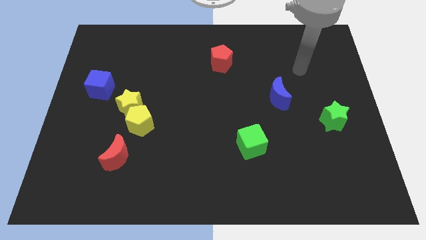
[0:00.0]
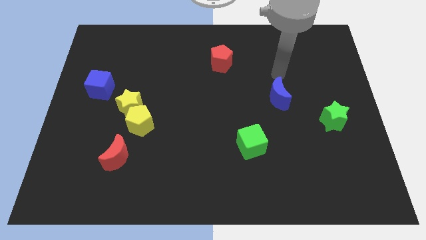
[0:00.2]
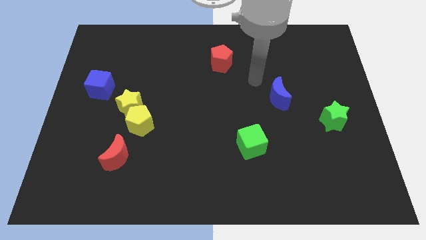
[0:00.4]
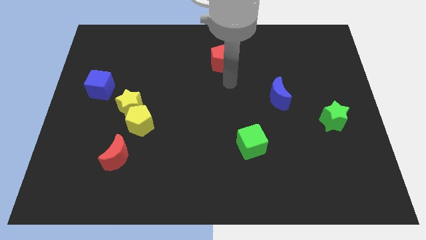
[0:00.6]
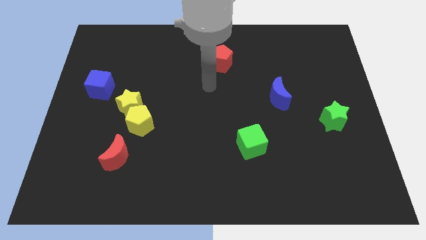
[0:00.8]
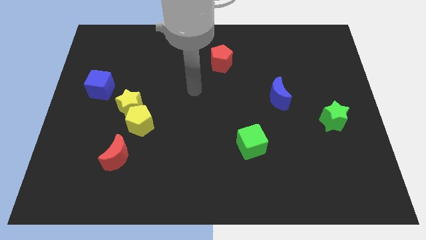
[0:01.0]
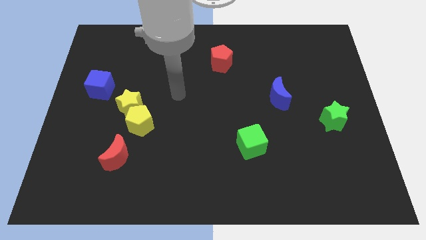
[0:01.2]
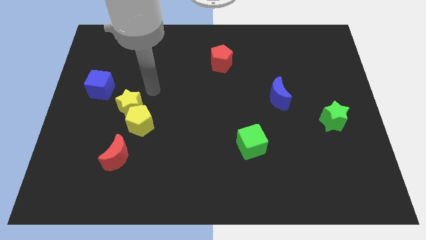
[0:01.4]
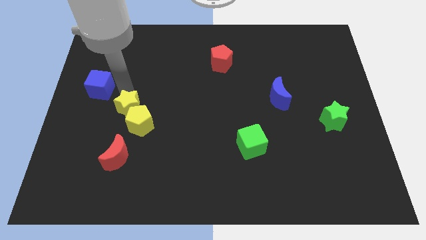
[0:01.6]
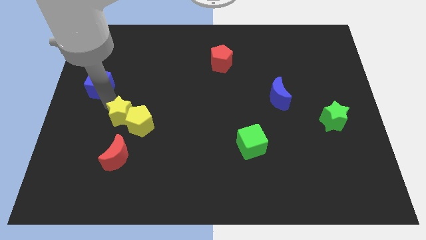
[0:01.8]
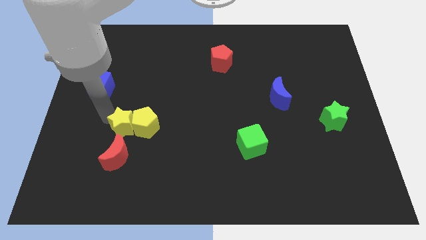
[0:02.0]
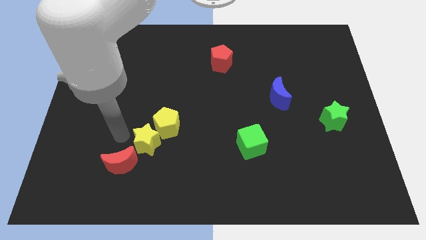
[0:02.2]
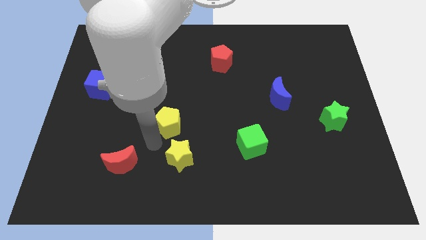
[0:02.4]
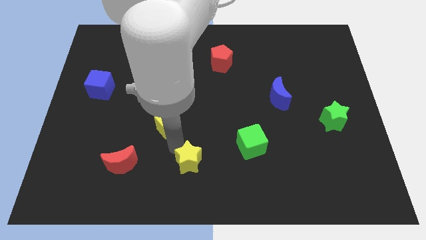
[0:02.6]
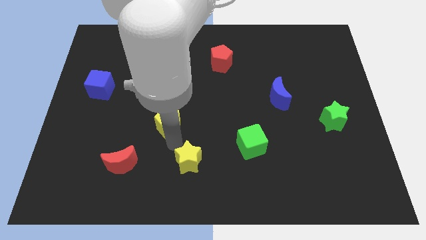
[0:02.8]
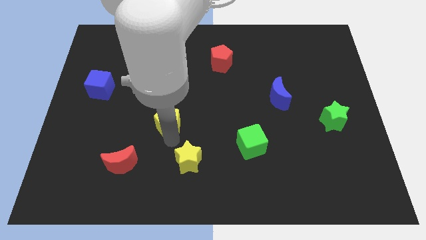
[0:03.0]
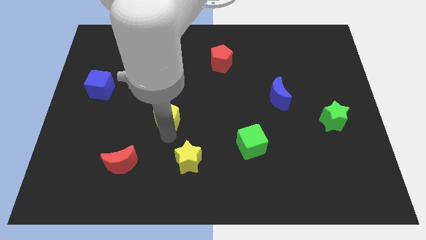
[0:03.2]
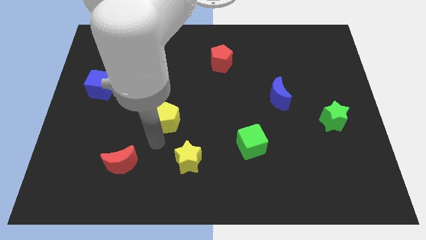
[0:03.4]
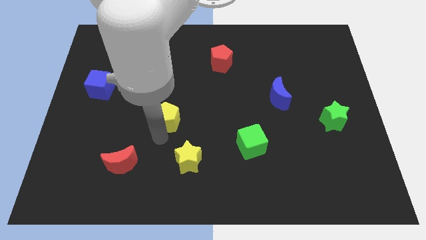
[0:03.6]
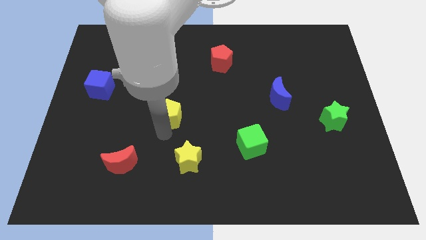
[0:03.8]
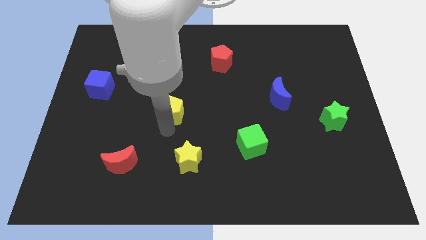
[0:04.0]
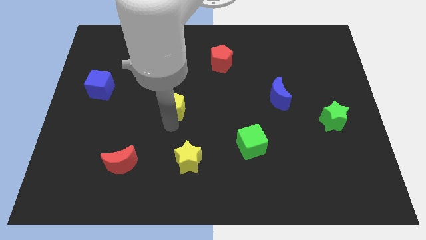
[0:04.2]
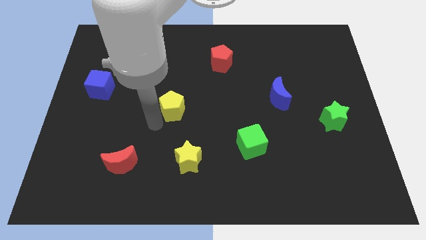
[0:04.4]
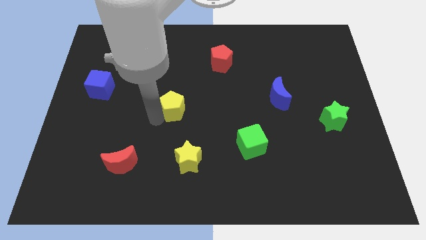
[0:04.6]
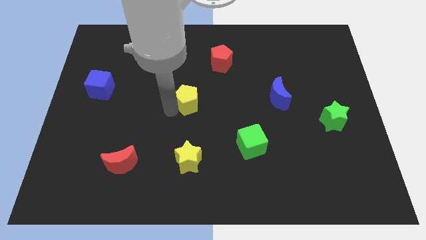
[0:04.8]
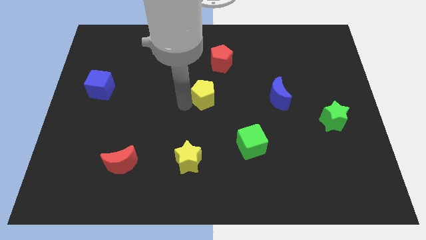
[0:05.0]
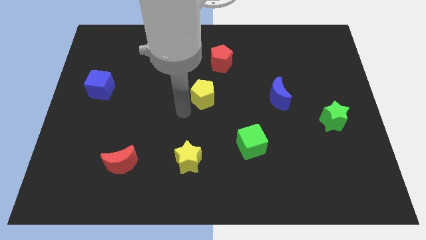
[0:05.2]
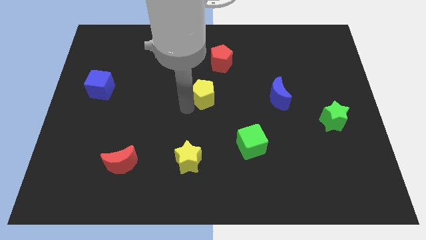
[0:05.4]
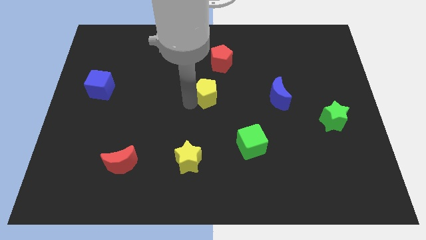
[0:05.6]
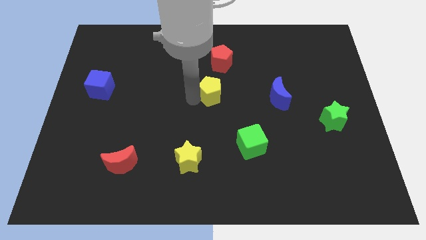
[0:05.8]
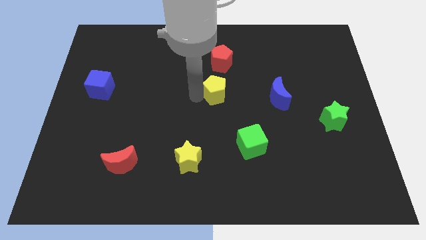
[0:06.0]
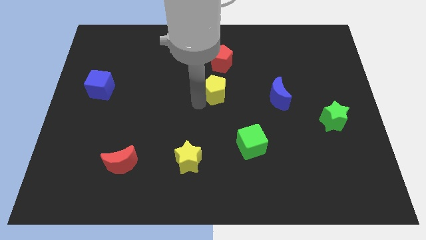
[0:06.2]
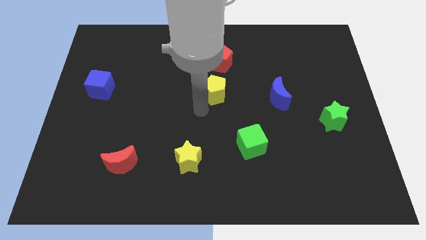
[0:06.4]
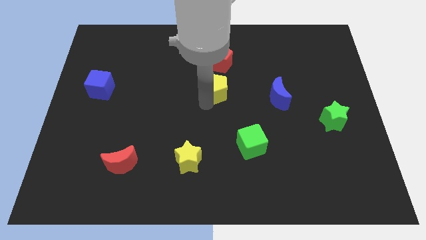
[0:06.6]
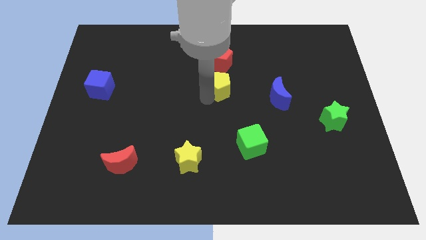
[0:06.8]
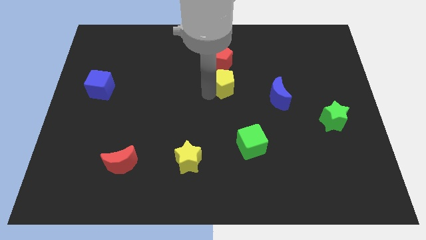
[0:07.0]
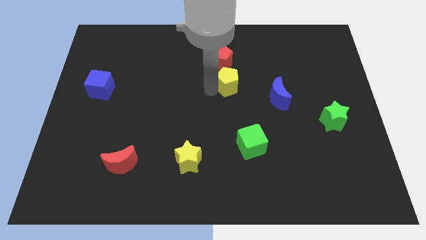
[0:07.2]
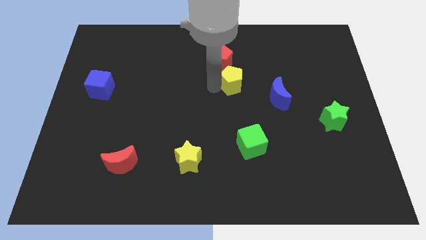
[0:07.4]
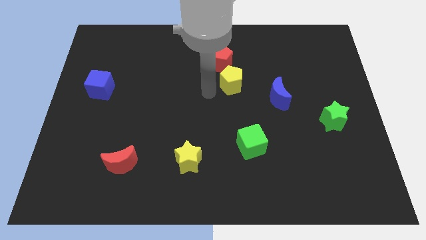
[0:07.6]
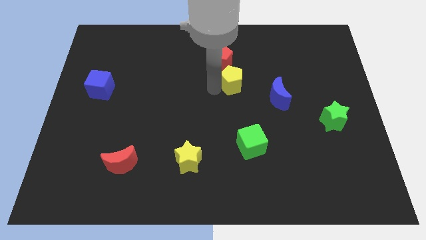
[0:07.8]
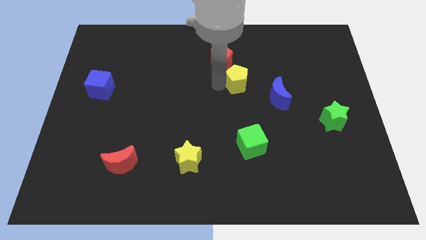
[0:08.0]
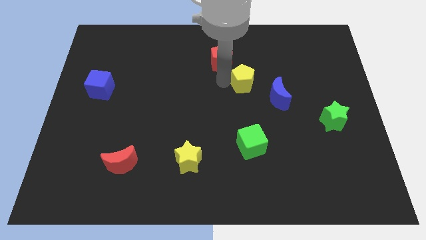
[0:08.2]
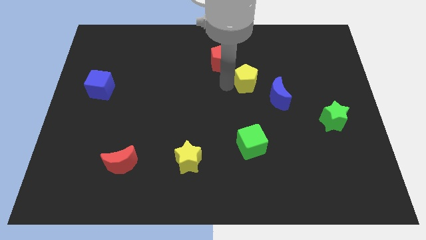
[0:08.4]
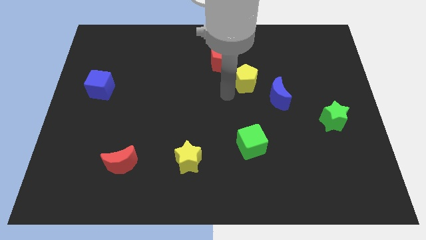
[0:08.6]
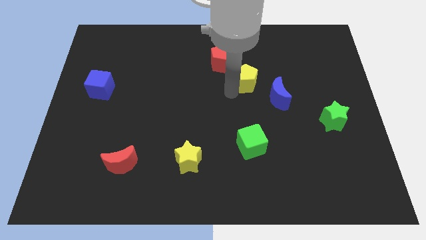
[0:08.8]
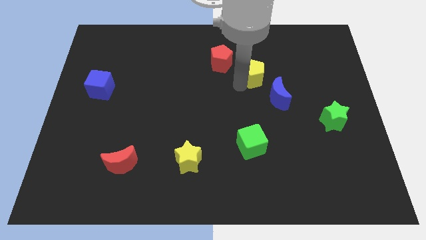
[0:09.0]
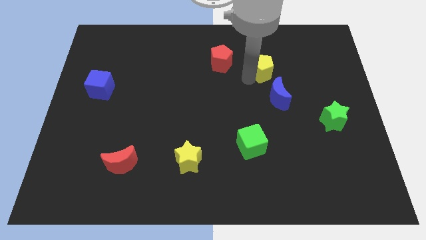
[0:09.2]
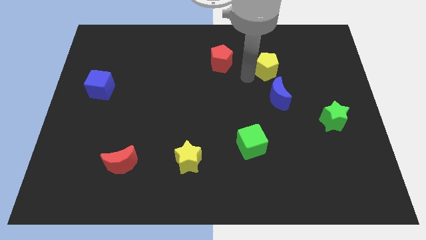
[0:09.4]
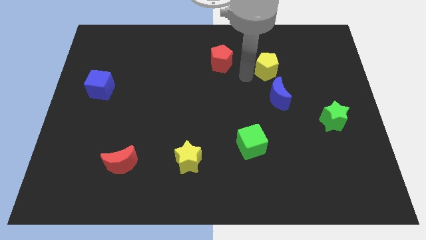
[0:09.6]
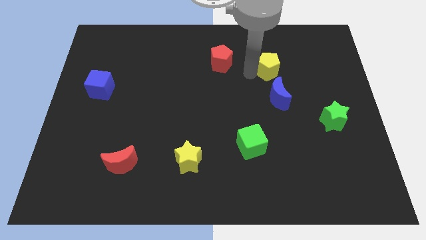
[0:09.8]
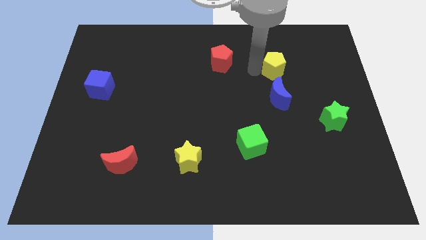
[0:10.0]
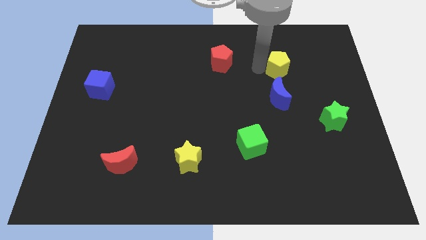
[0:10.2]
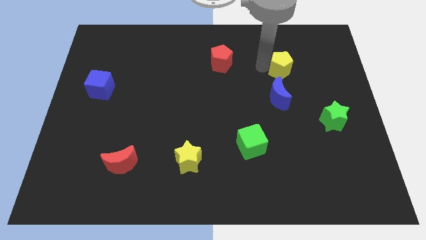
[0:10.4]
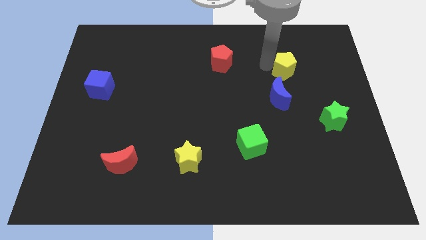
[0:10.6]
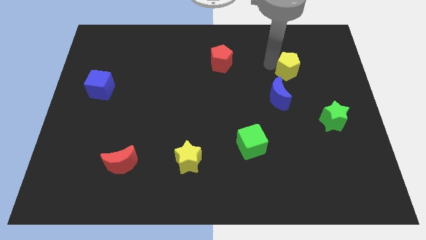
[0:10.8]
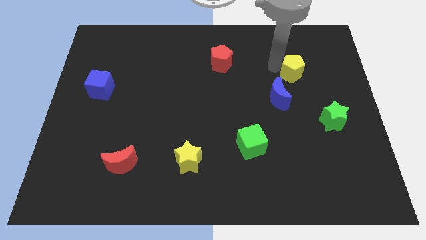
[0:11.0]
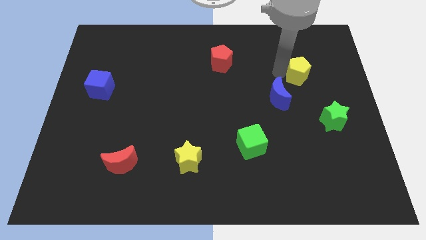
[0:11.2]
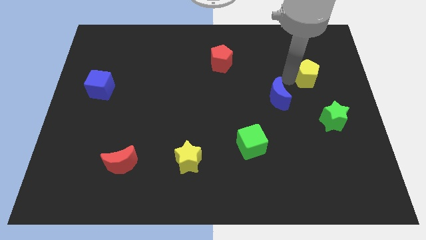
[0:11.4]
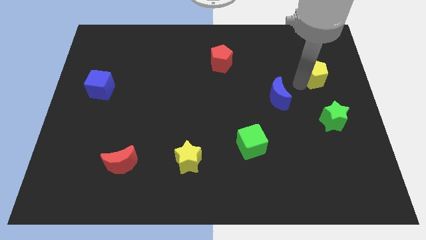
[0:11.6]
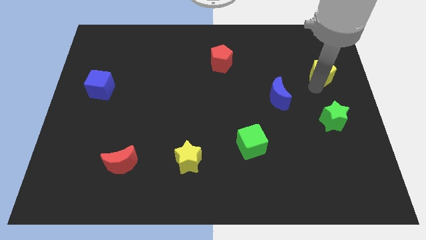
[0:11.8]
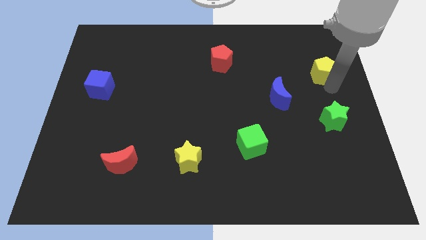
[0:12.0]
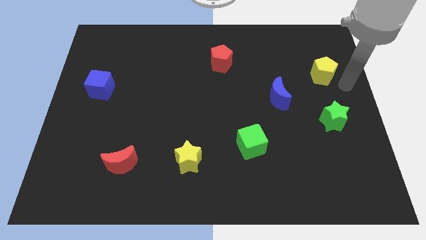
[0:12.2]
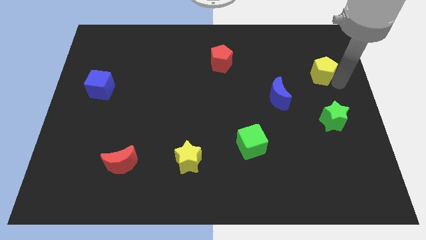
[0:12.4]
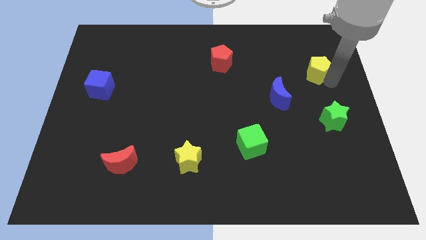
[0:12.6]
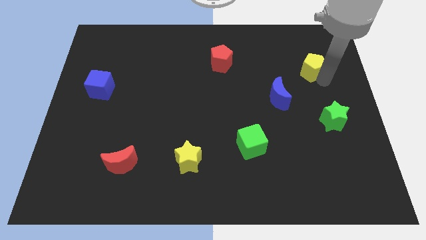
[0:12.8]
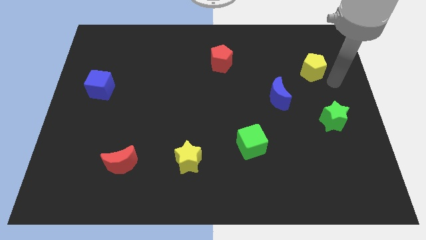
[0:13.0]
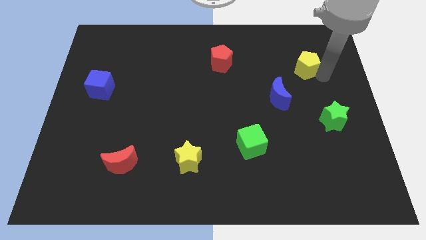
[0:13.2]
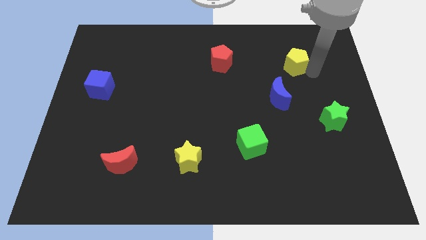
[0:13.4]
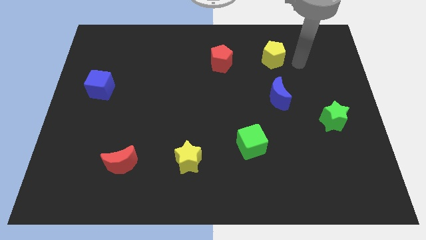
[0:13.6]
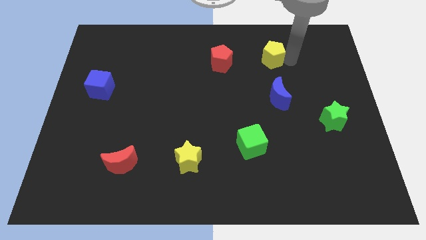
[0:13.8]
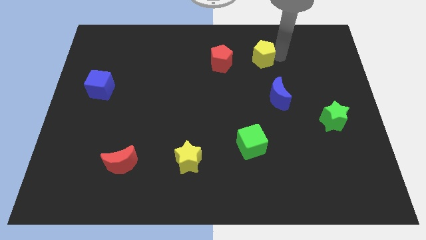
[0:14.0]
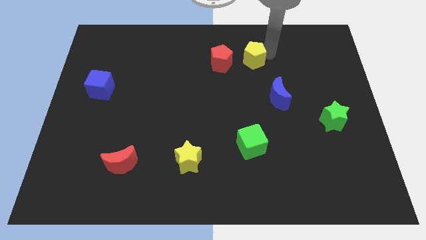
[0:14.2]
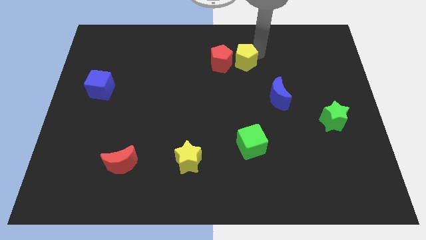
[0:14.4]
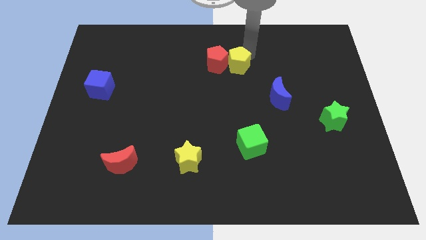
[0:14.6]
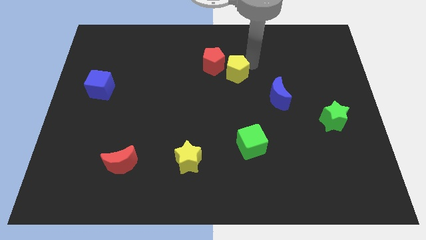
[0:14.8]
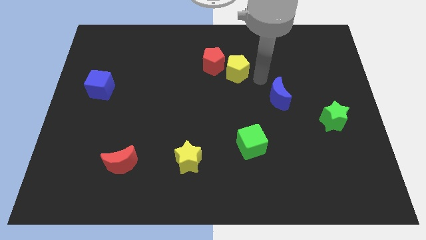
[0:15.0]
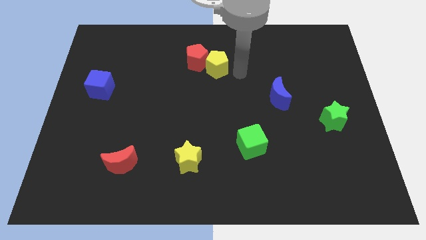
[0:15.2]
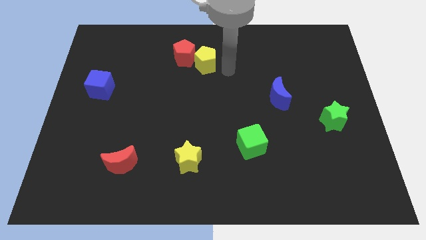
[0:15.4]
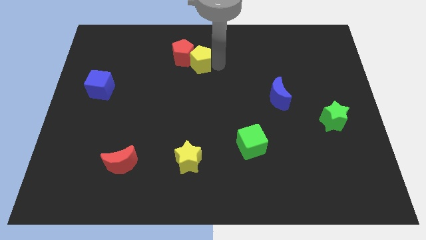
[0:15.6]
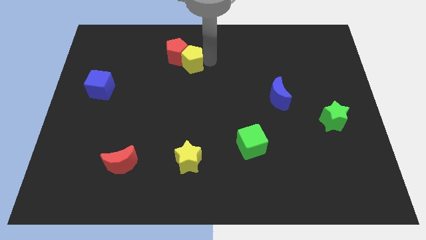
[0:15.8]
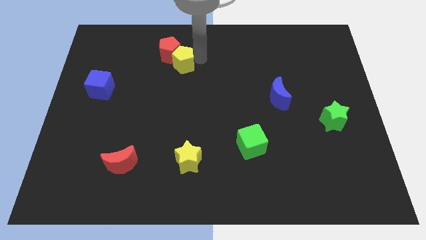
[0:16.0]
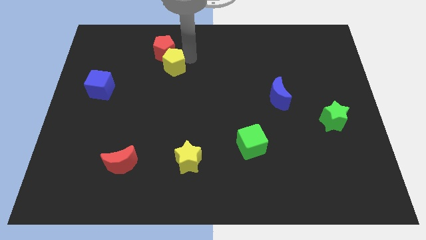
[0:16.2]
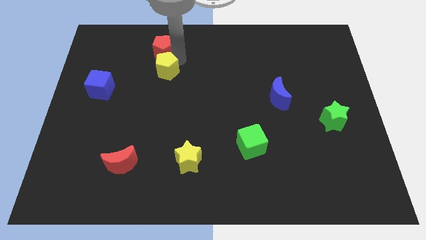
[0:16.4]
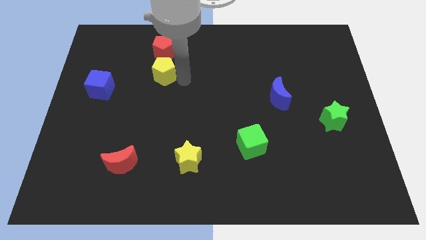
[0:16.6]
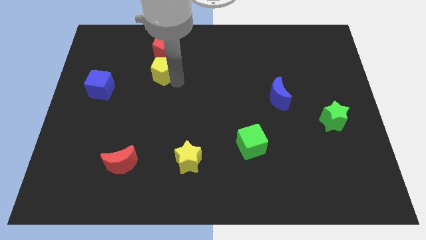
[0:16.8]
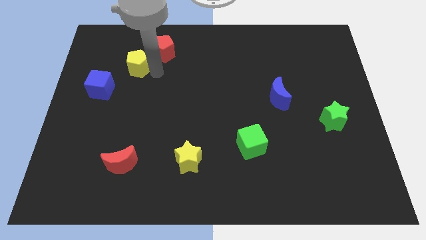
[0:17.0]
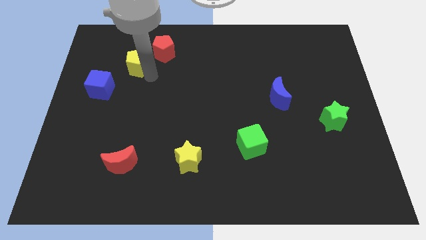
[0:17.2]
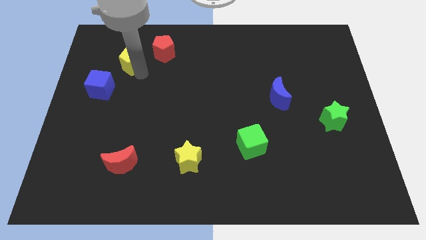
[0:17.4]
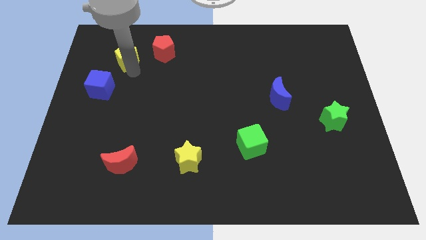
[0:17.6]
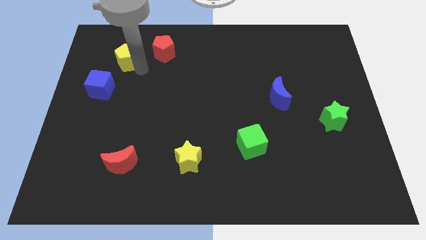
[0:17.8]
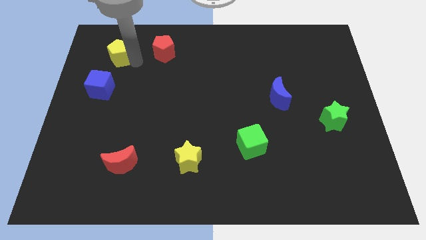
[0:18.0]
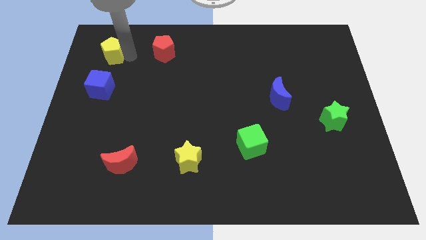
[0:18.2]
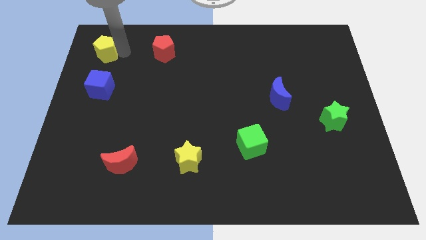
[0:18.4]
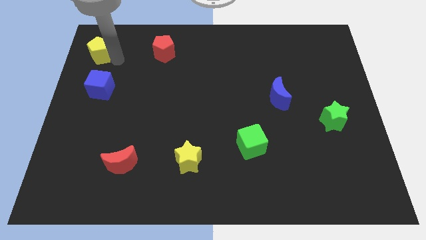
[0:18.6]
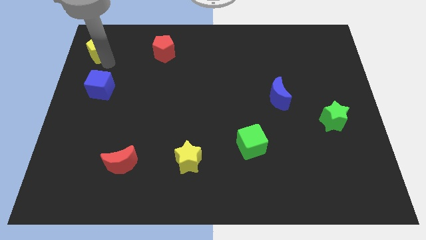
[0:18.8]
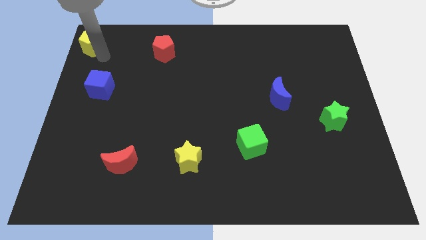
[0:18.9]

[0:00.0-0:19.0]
push the yellow pentagon to the top left of the board
